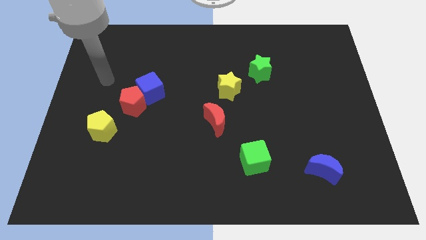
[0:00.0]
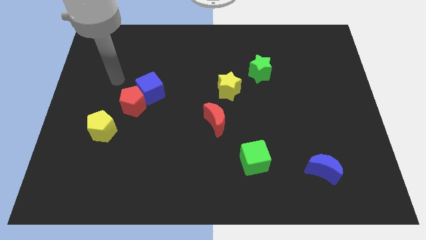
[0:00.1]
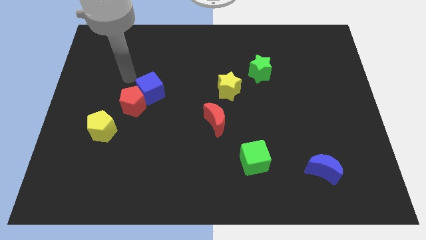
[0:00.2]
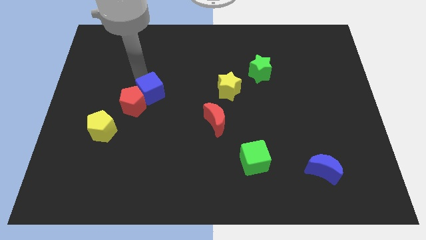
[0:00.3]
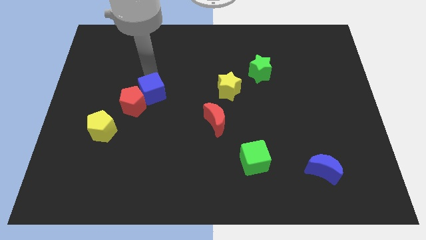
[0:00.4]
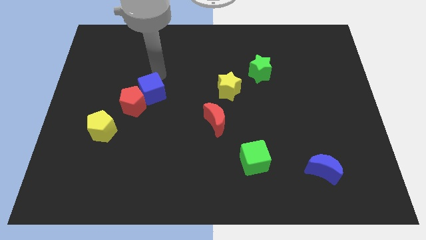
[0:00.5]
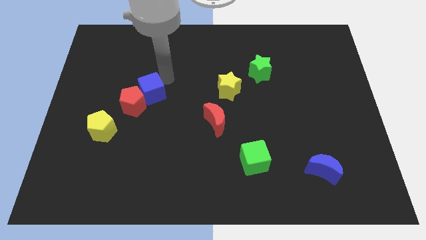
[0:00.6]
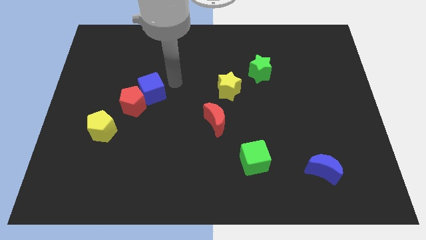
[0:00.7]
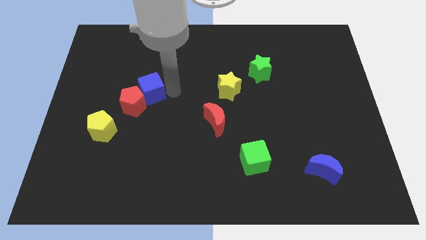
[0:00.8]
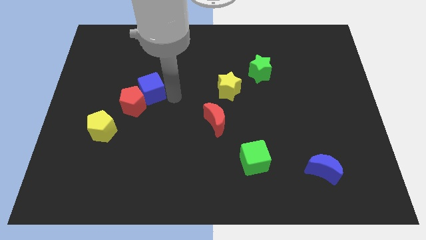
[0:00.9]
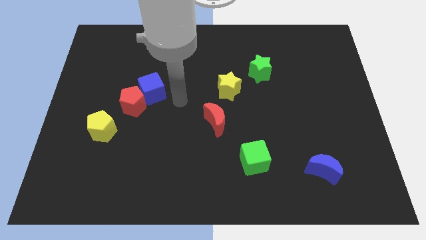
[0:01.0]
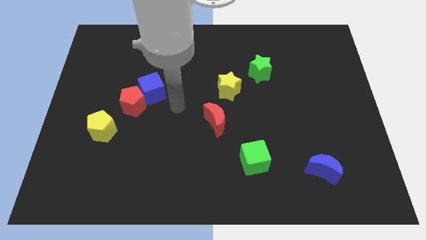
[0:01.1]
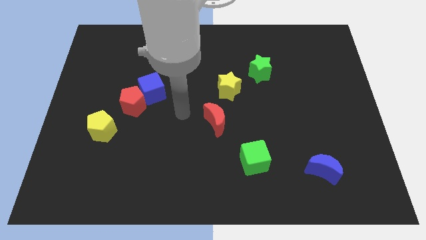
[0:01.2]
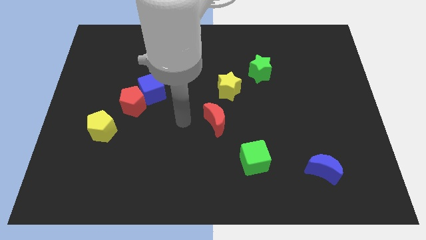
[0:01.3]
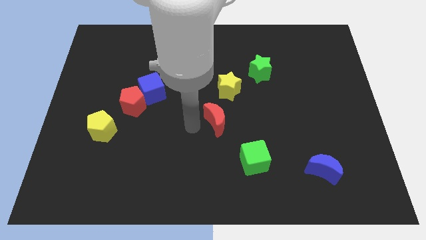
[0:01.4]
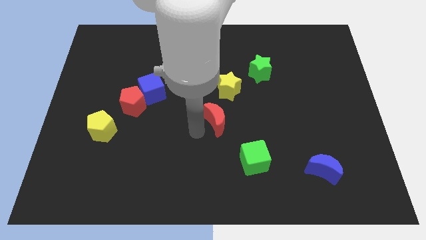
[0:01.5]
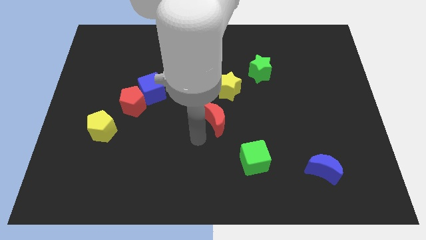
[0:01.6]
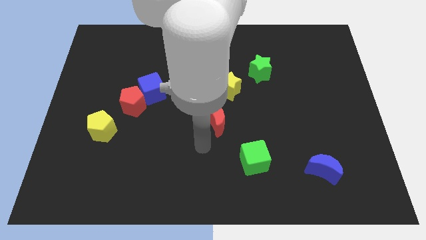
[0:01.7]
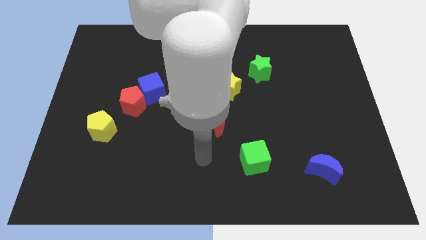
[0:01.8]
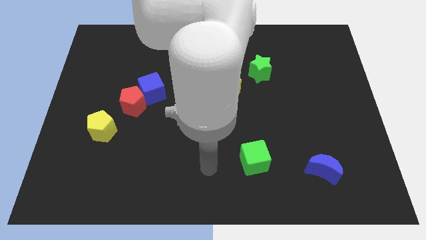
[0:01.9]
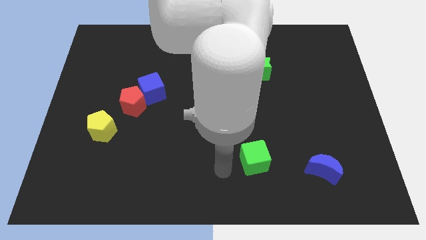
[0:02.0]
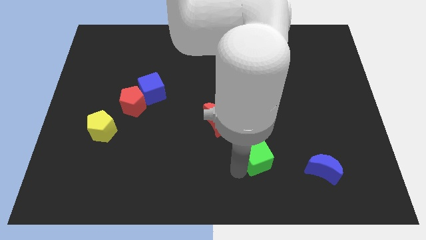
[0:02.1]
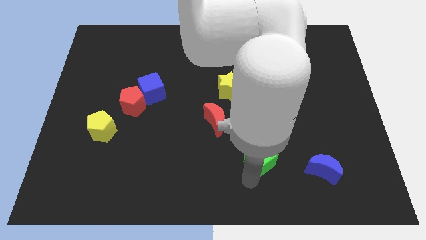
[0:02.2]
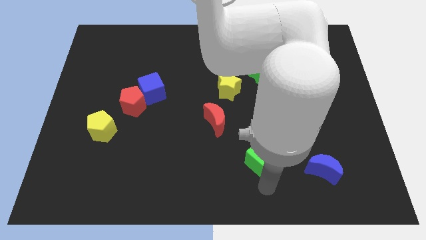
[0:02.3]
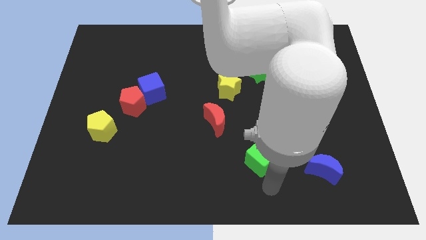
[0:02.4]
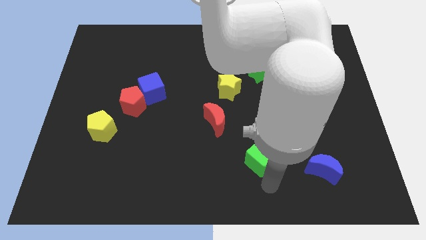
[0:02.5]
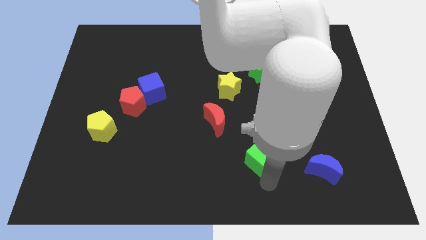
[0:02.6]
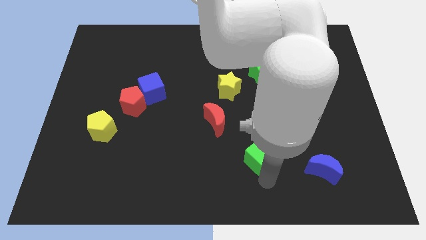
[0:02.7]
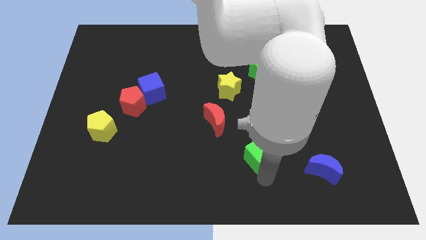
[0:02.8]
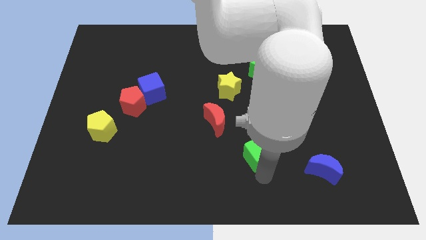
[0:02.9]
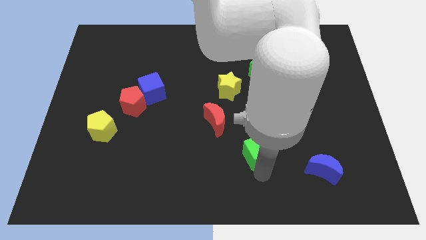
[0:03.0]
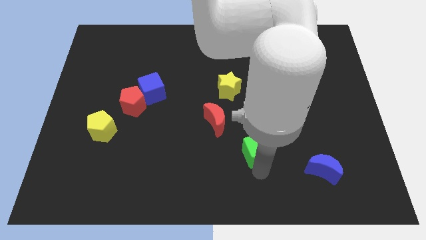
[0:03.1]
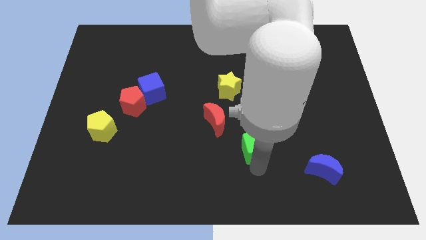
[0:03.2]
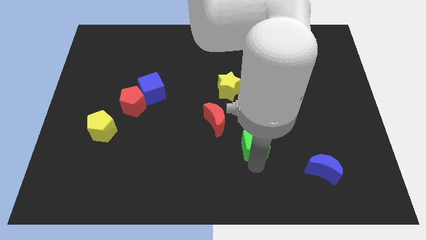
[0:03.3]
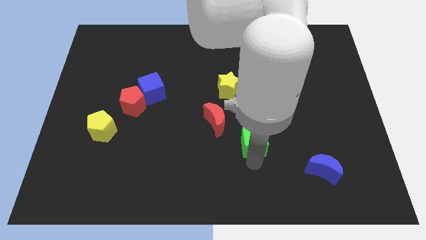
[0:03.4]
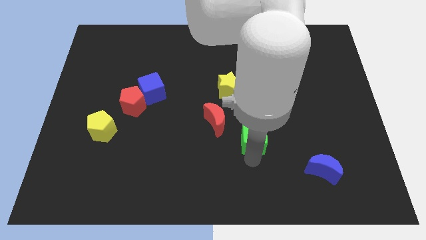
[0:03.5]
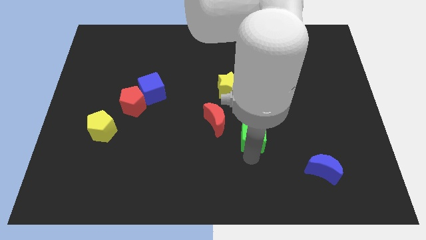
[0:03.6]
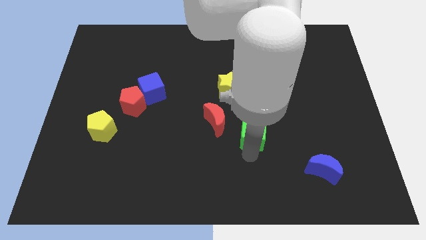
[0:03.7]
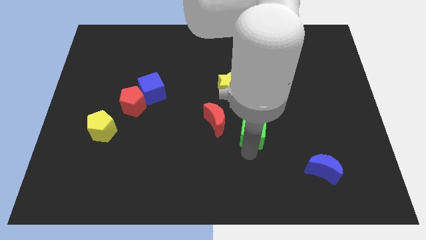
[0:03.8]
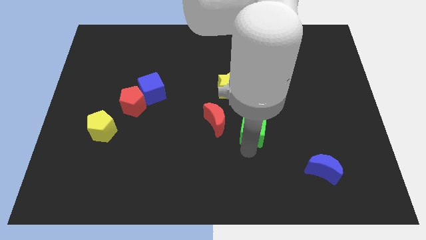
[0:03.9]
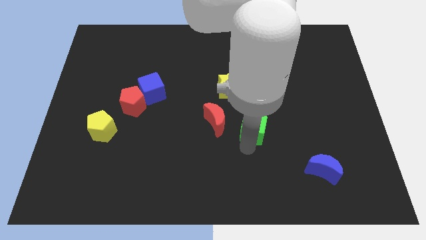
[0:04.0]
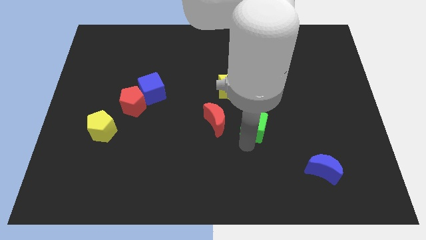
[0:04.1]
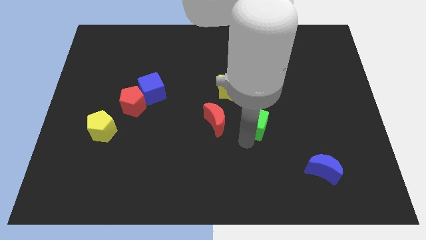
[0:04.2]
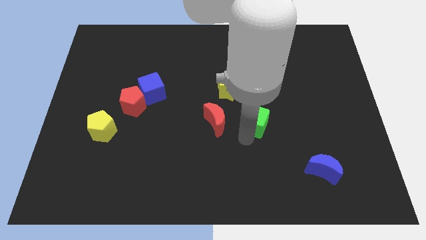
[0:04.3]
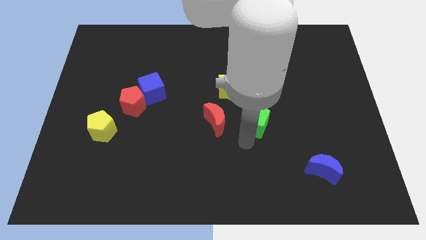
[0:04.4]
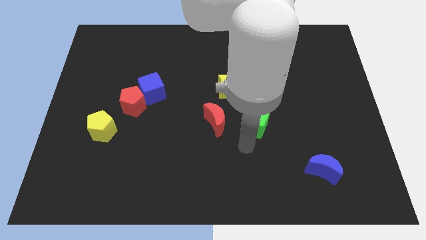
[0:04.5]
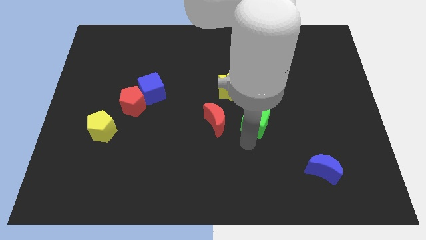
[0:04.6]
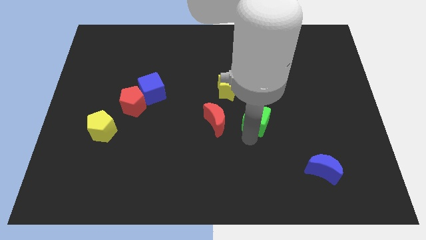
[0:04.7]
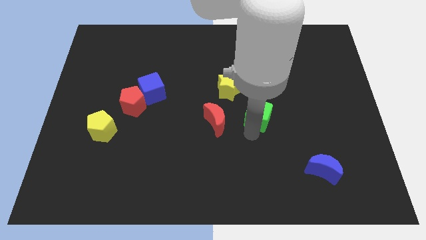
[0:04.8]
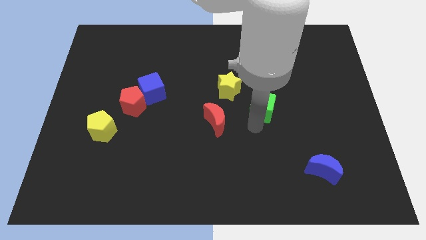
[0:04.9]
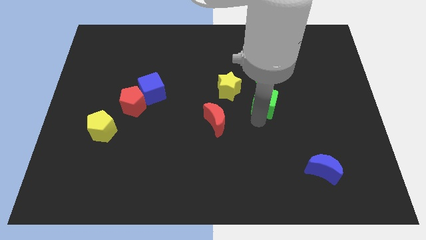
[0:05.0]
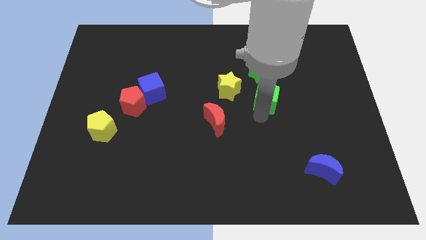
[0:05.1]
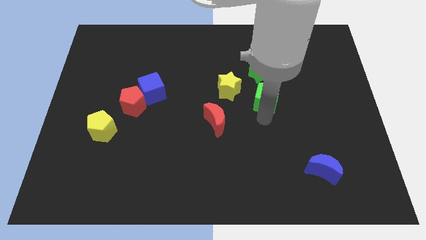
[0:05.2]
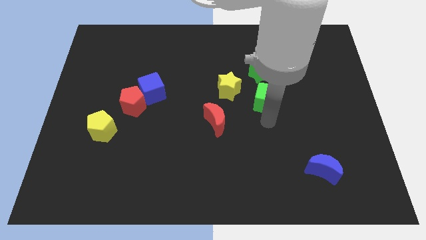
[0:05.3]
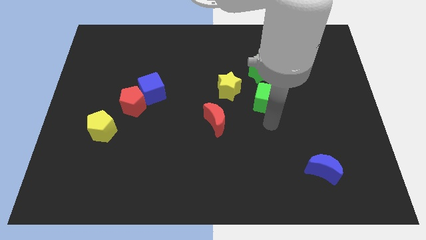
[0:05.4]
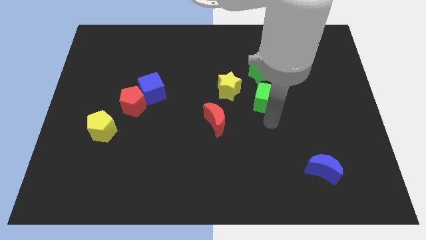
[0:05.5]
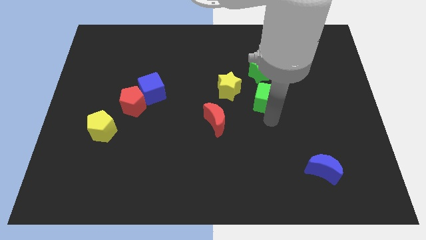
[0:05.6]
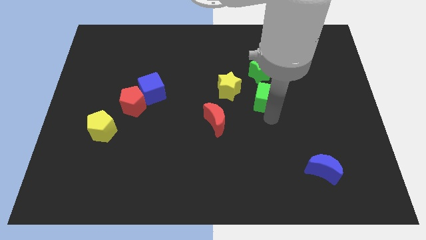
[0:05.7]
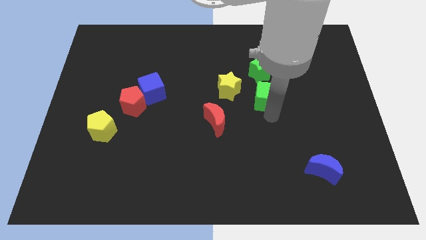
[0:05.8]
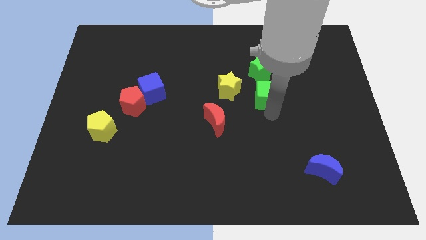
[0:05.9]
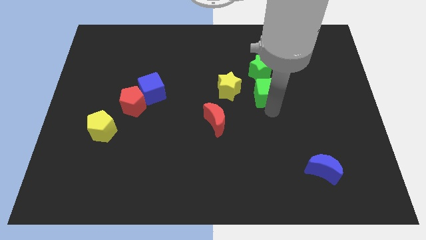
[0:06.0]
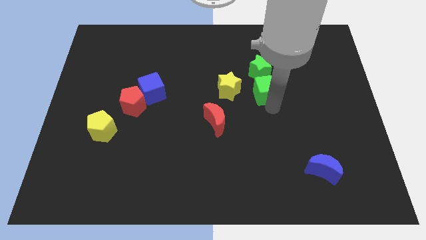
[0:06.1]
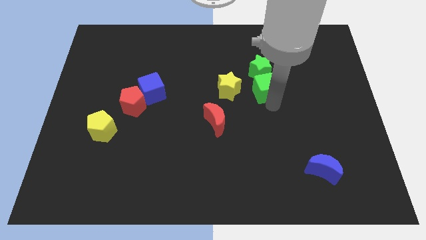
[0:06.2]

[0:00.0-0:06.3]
put the green cube towards the green star
